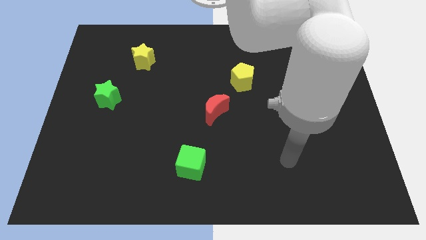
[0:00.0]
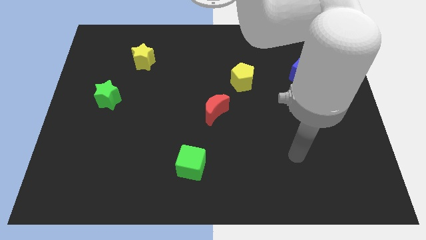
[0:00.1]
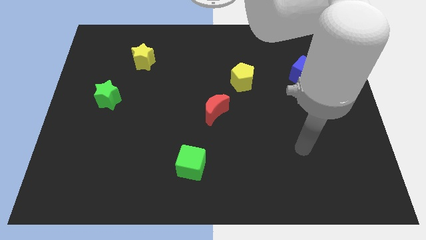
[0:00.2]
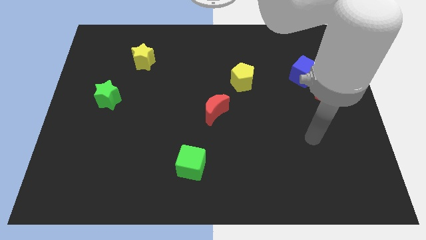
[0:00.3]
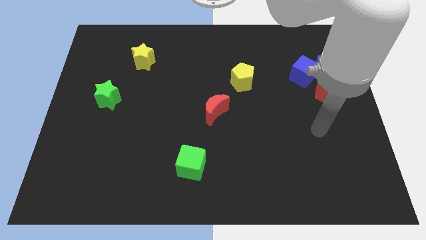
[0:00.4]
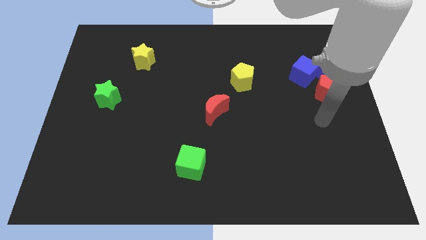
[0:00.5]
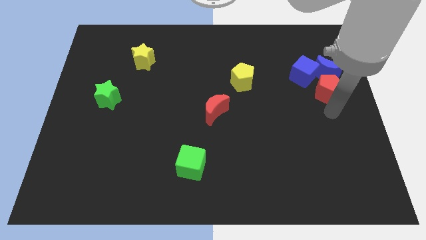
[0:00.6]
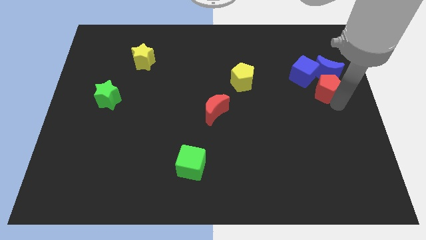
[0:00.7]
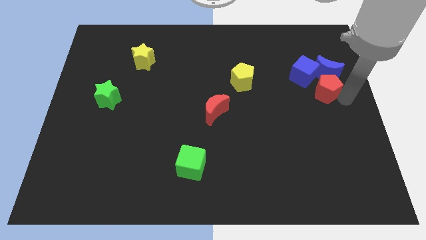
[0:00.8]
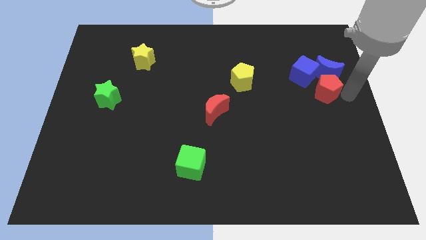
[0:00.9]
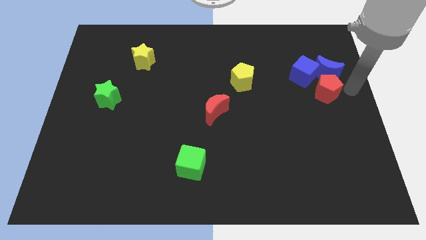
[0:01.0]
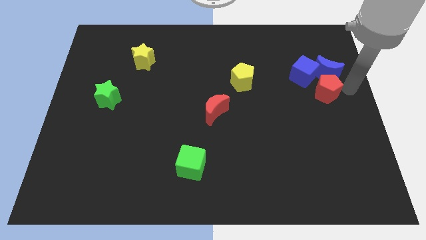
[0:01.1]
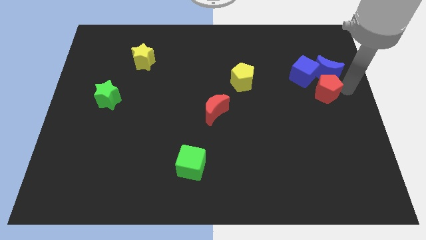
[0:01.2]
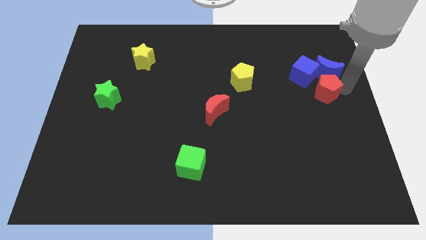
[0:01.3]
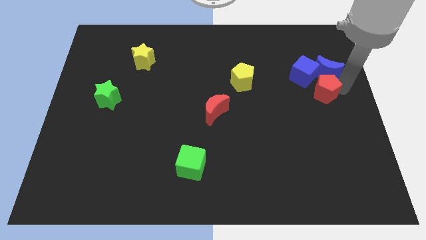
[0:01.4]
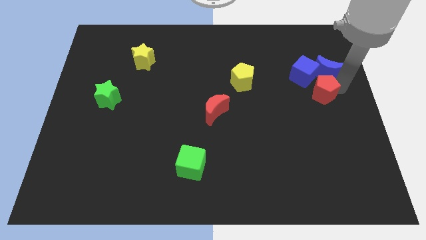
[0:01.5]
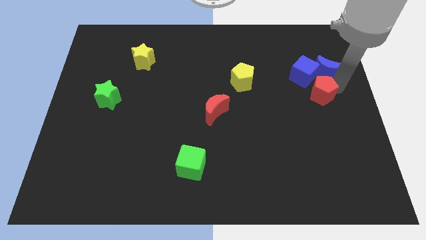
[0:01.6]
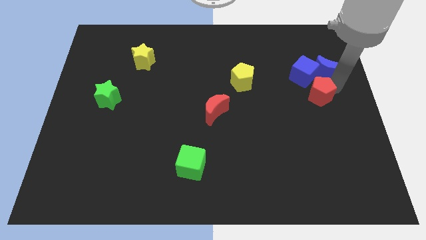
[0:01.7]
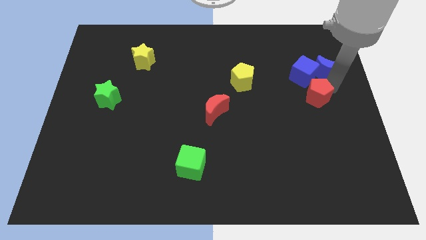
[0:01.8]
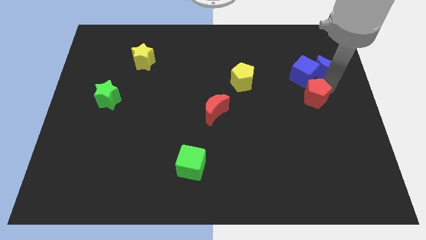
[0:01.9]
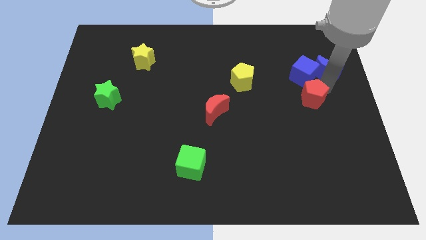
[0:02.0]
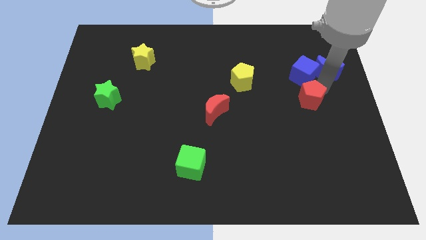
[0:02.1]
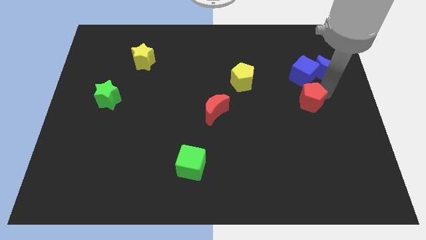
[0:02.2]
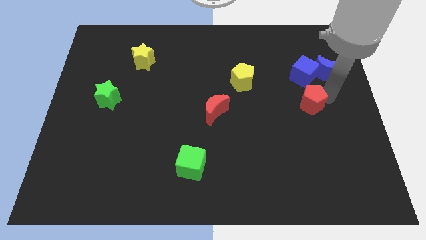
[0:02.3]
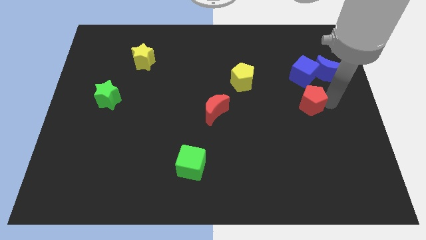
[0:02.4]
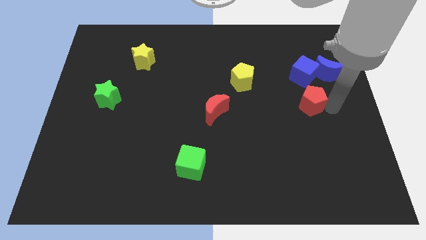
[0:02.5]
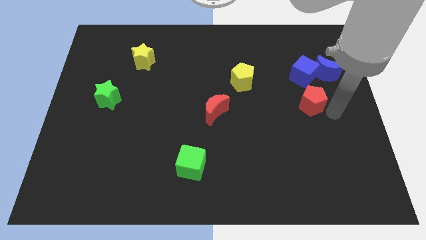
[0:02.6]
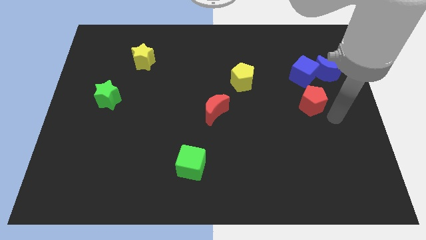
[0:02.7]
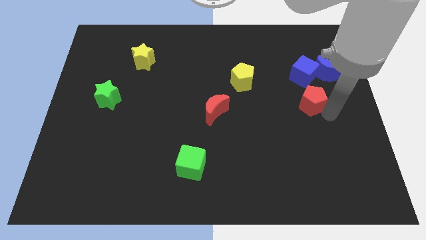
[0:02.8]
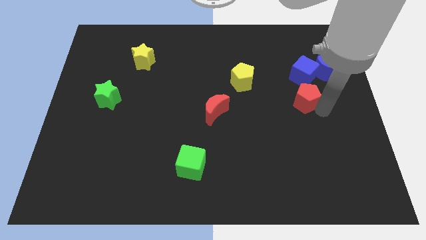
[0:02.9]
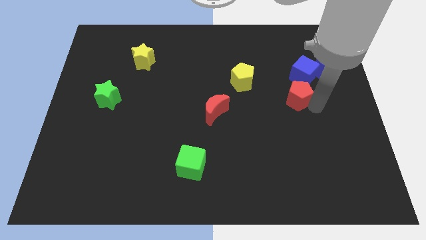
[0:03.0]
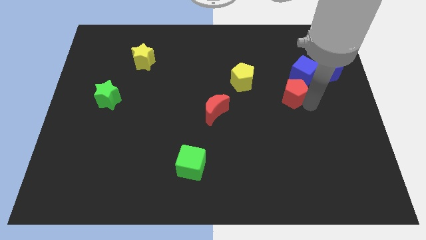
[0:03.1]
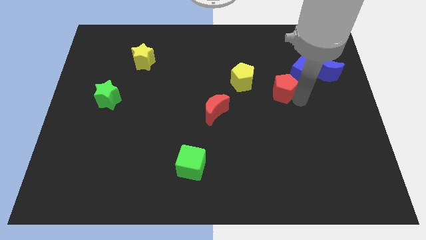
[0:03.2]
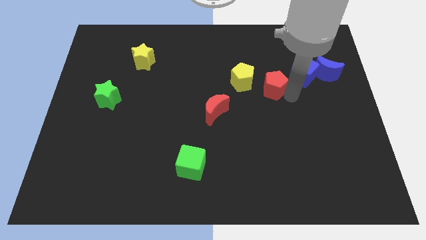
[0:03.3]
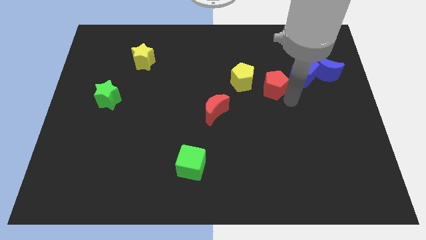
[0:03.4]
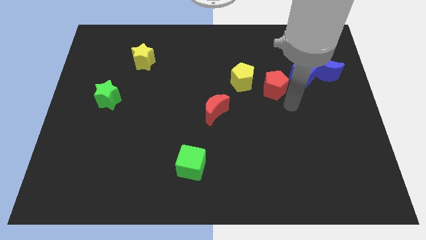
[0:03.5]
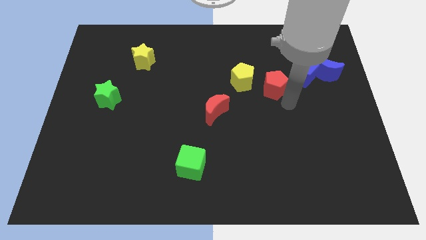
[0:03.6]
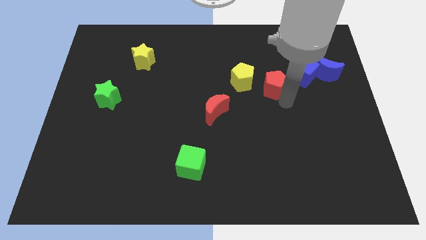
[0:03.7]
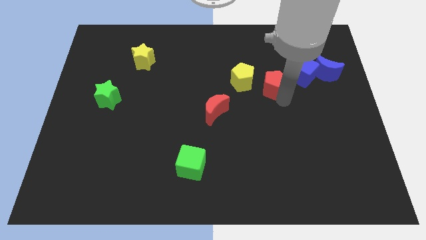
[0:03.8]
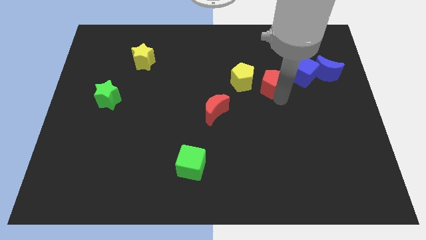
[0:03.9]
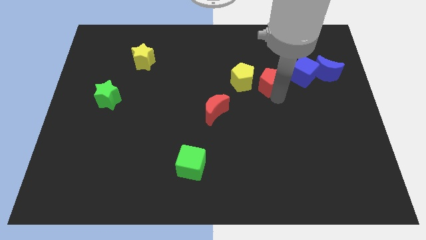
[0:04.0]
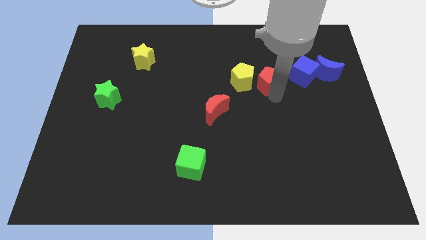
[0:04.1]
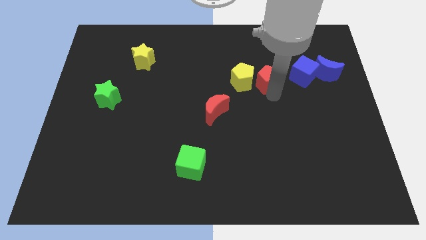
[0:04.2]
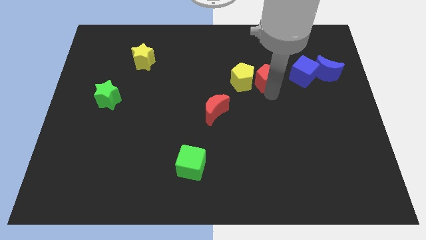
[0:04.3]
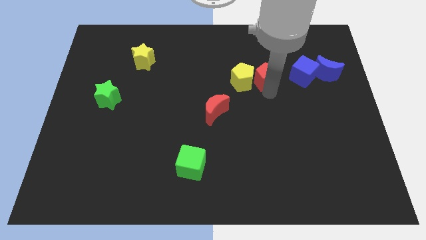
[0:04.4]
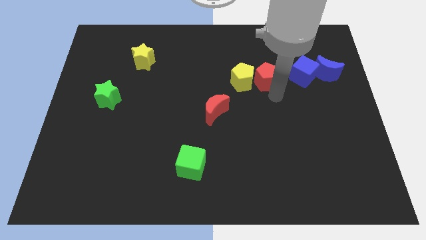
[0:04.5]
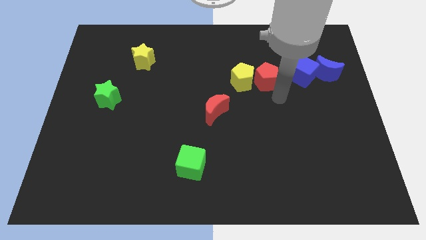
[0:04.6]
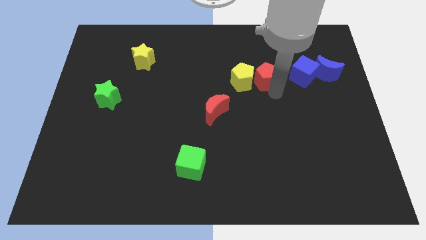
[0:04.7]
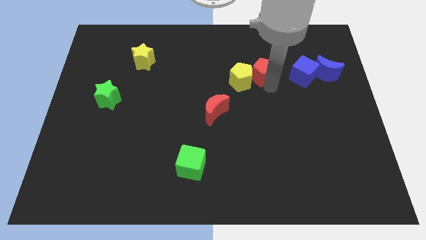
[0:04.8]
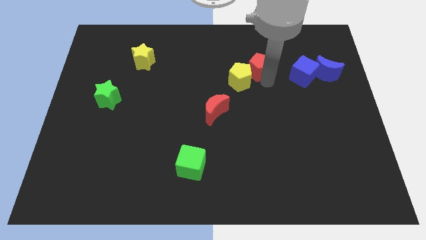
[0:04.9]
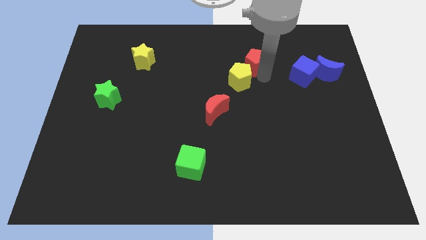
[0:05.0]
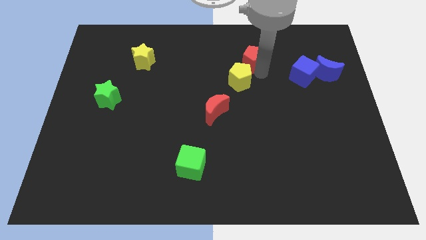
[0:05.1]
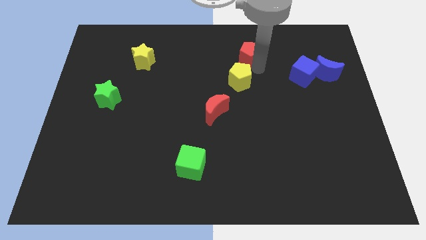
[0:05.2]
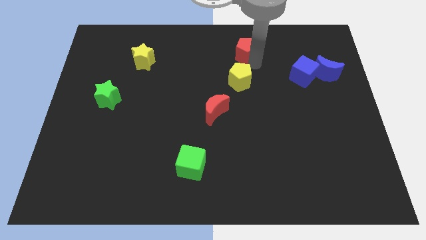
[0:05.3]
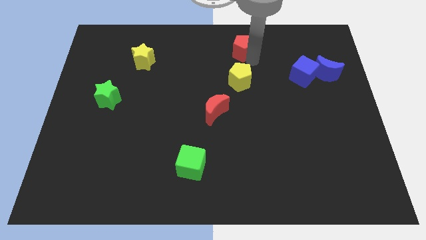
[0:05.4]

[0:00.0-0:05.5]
slide the red pentagon to the top

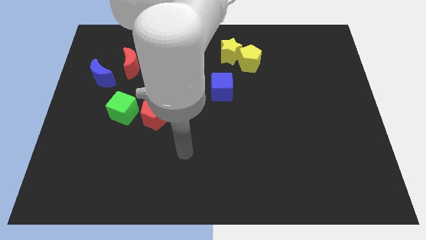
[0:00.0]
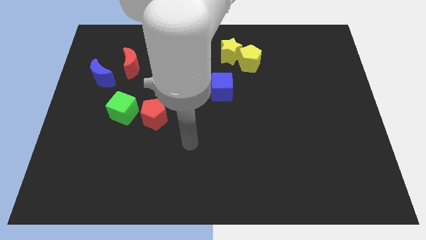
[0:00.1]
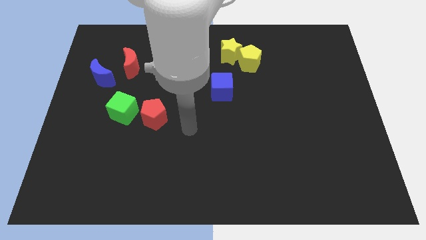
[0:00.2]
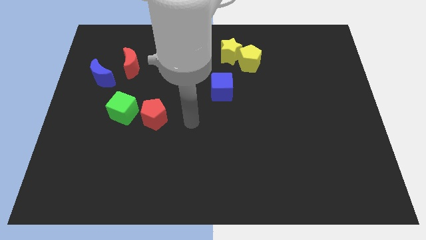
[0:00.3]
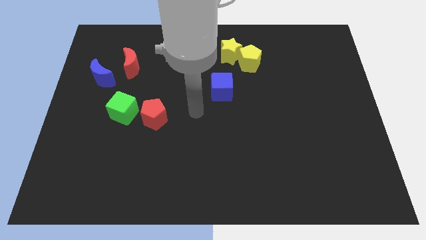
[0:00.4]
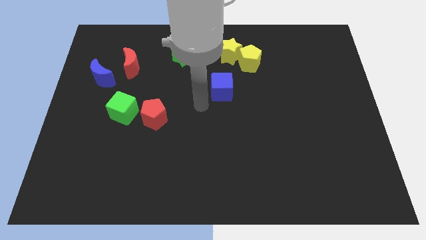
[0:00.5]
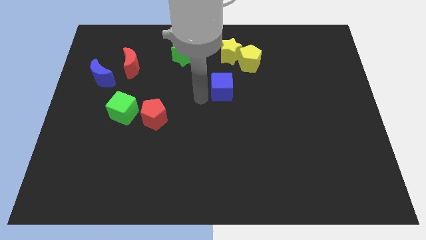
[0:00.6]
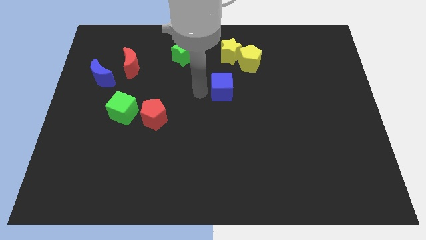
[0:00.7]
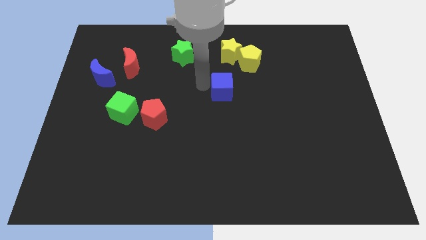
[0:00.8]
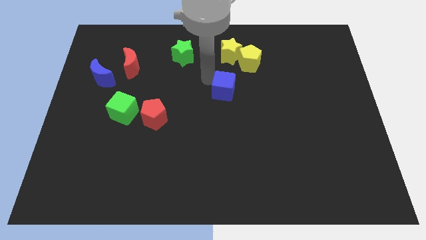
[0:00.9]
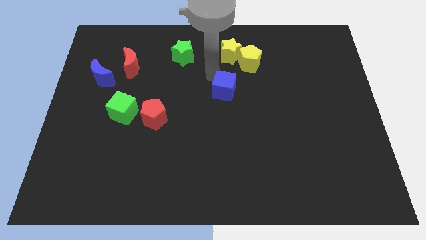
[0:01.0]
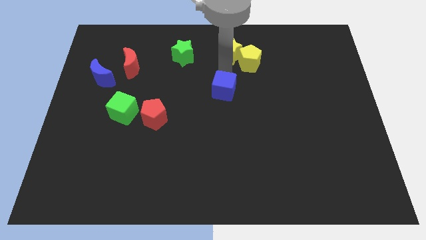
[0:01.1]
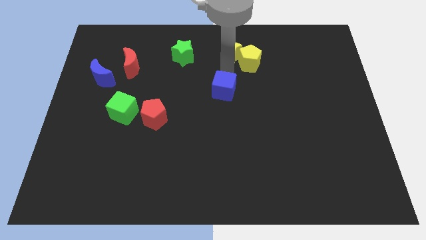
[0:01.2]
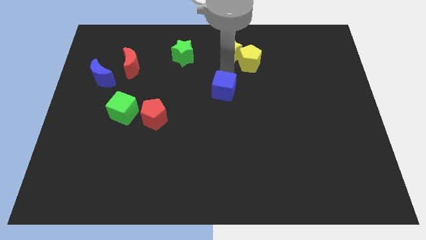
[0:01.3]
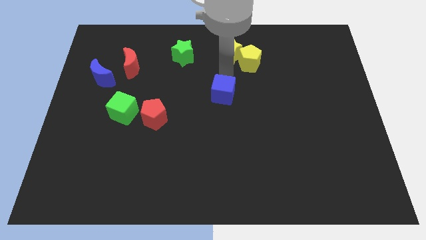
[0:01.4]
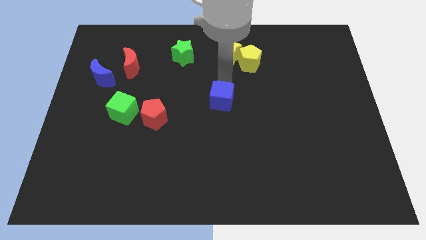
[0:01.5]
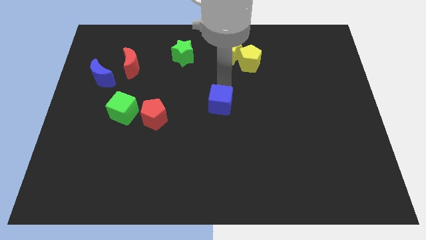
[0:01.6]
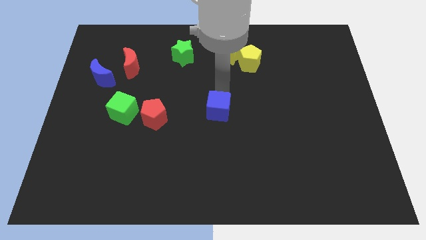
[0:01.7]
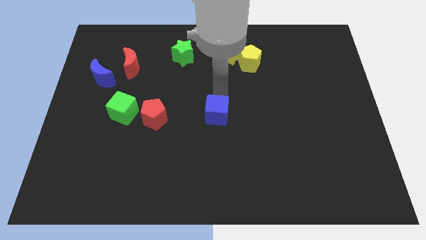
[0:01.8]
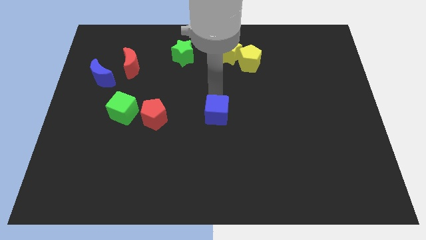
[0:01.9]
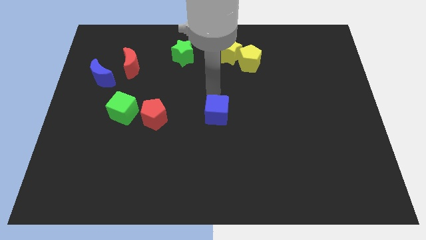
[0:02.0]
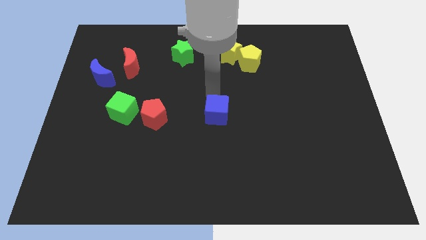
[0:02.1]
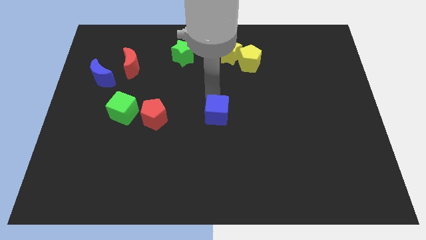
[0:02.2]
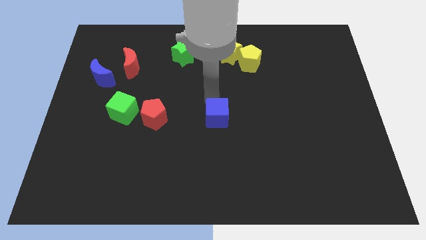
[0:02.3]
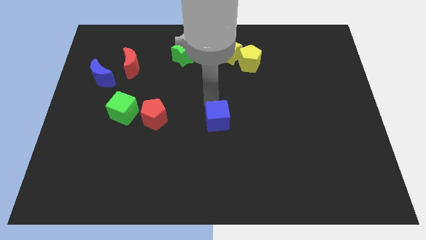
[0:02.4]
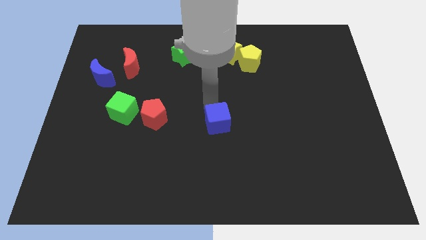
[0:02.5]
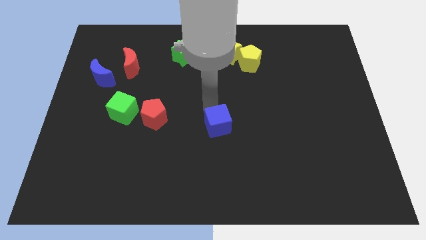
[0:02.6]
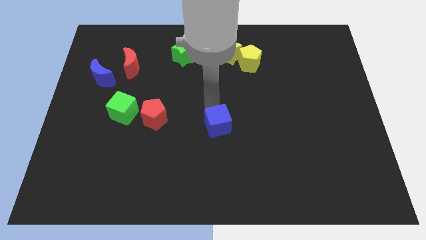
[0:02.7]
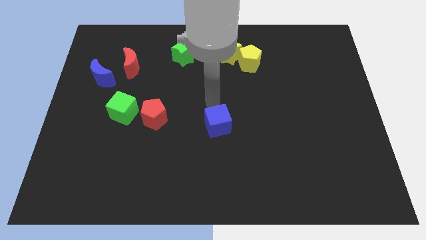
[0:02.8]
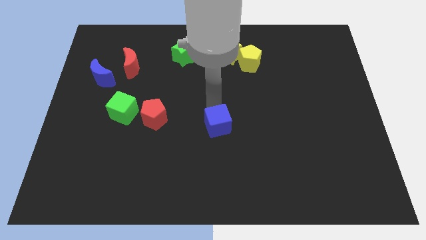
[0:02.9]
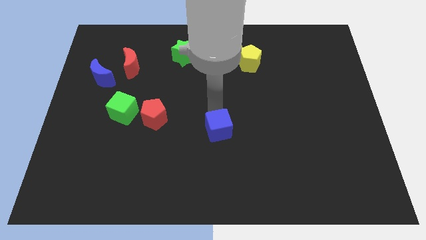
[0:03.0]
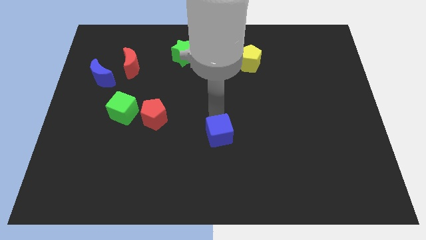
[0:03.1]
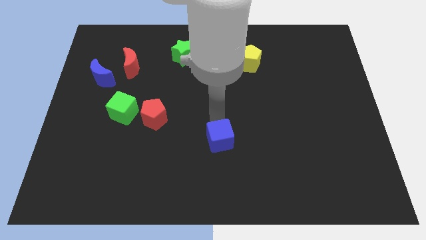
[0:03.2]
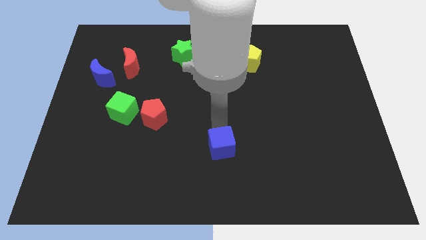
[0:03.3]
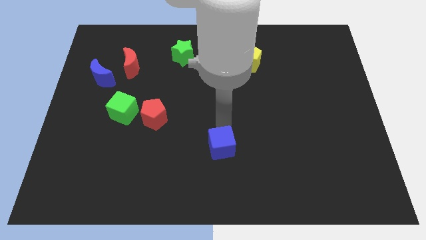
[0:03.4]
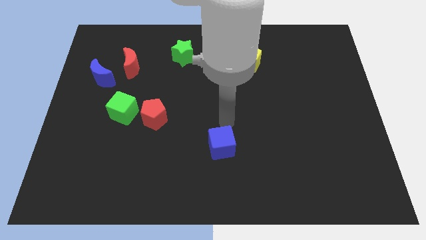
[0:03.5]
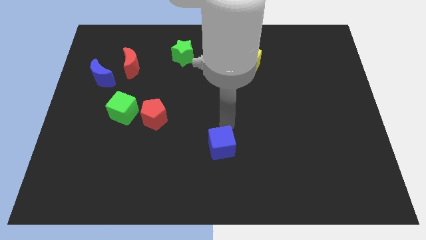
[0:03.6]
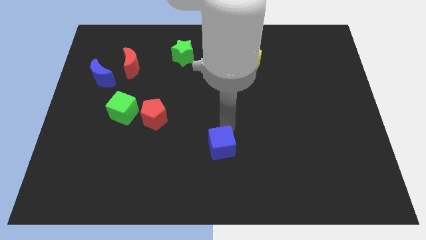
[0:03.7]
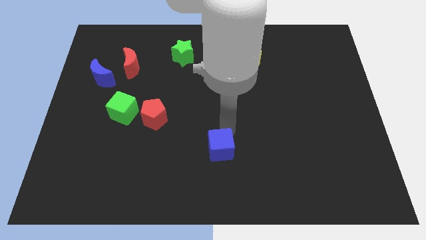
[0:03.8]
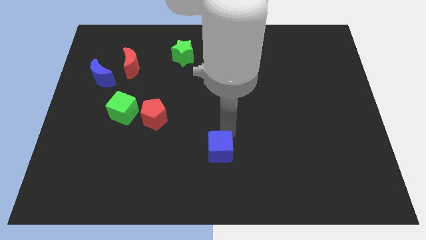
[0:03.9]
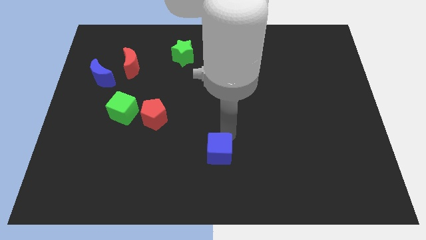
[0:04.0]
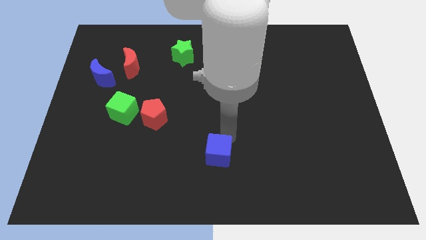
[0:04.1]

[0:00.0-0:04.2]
put the blue cube to the bottom side
